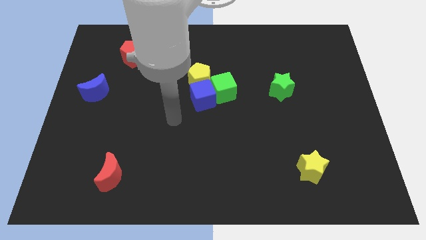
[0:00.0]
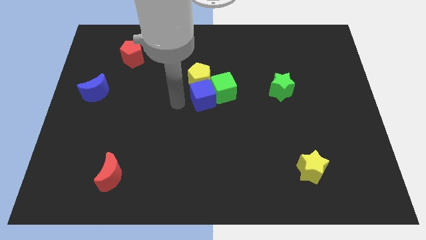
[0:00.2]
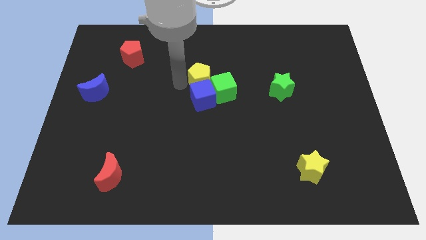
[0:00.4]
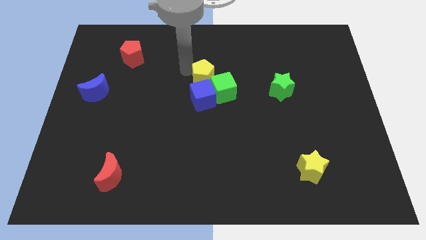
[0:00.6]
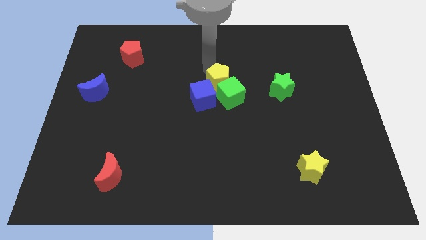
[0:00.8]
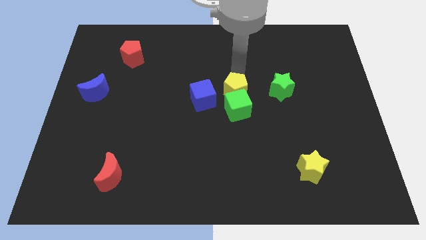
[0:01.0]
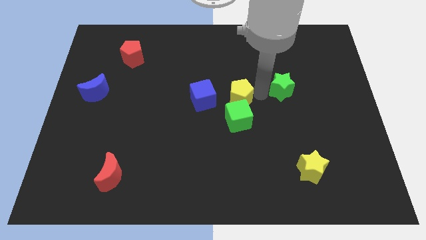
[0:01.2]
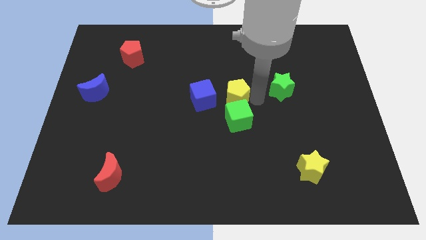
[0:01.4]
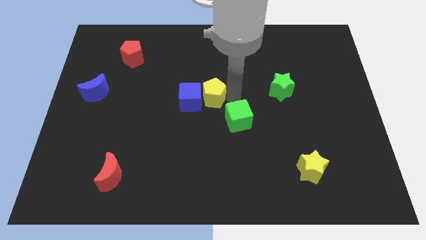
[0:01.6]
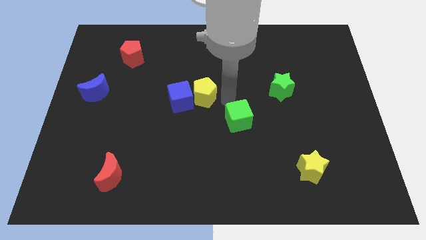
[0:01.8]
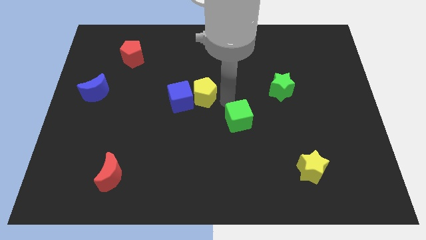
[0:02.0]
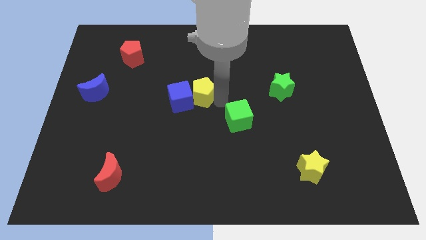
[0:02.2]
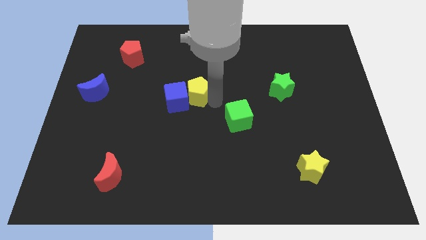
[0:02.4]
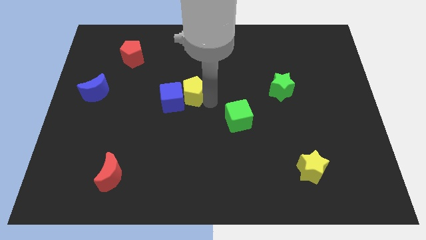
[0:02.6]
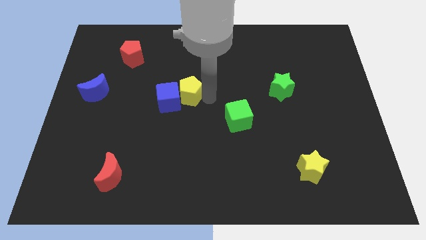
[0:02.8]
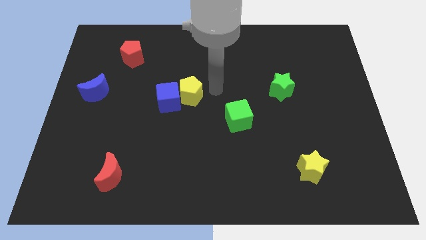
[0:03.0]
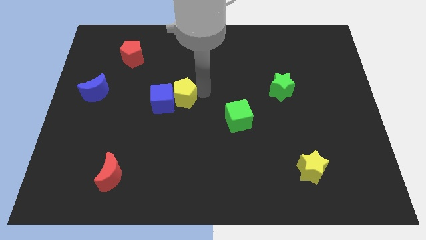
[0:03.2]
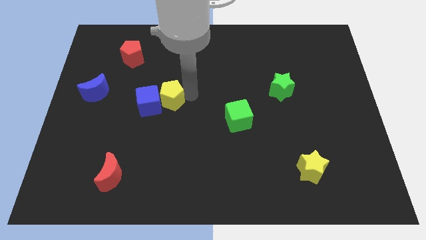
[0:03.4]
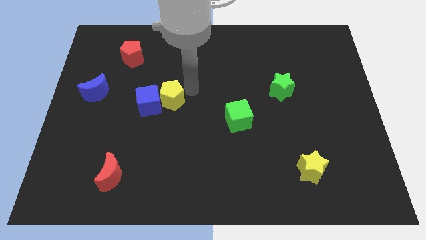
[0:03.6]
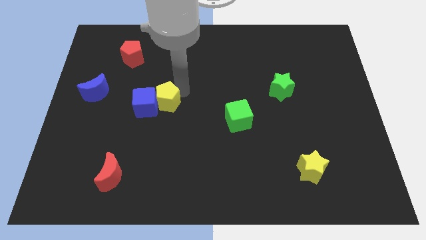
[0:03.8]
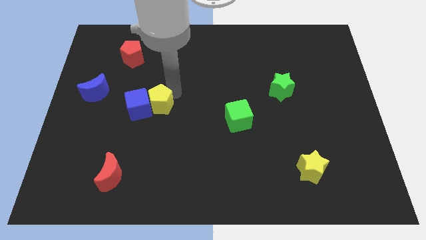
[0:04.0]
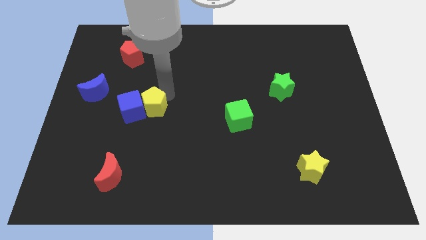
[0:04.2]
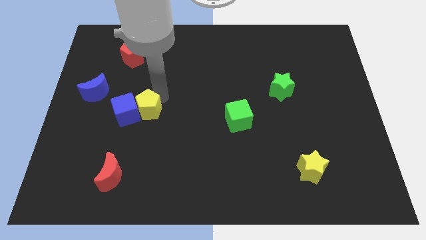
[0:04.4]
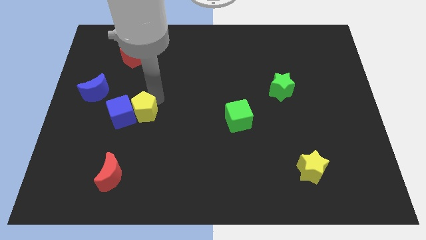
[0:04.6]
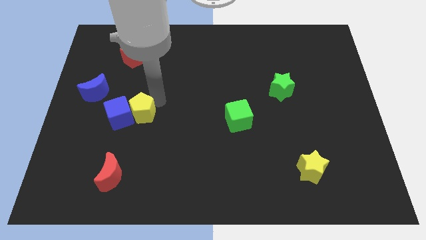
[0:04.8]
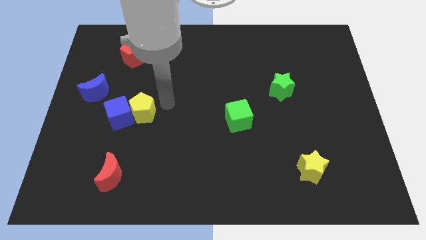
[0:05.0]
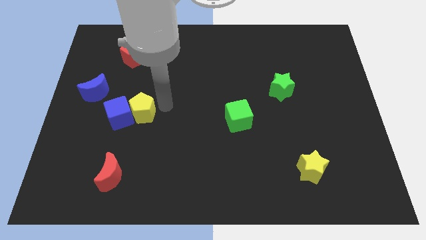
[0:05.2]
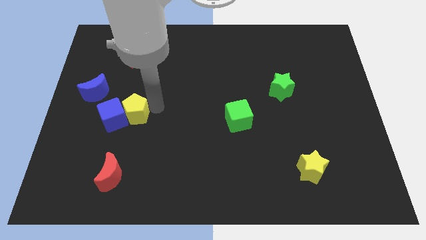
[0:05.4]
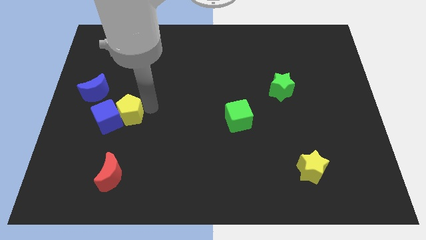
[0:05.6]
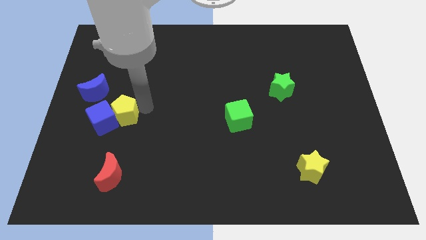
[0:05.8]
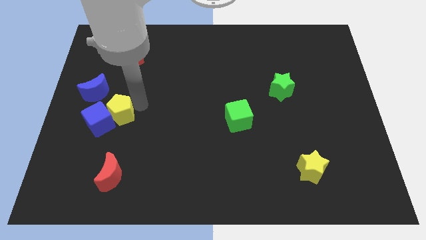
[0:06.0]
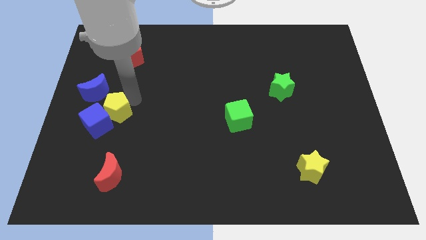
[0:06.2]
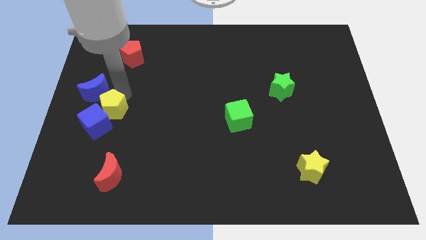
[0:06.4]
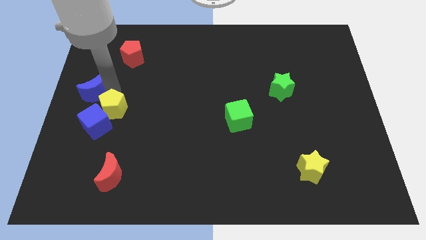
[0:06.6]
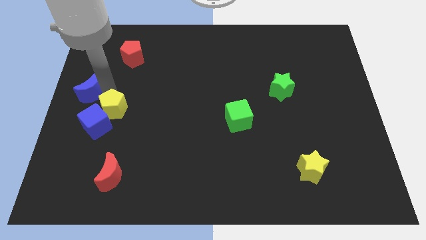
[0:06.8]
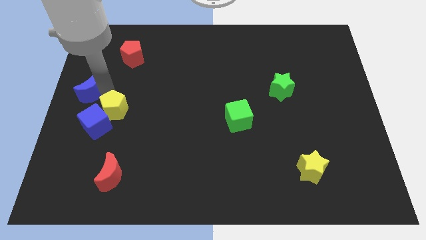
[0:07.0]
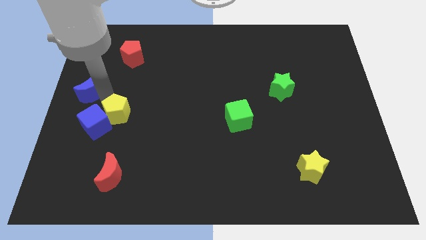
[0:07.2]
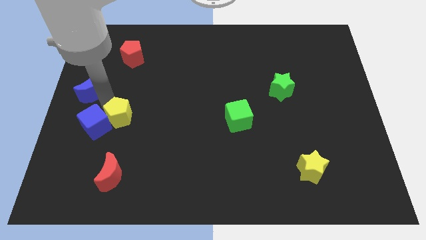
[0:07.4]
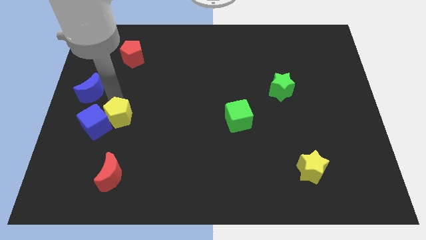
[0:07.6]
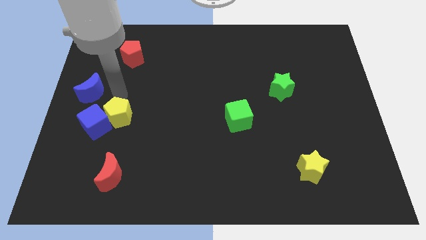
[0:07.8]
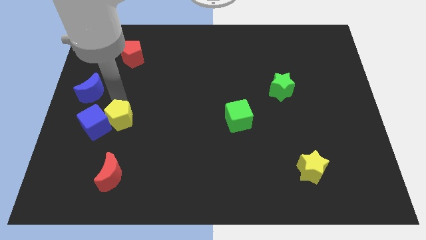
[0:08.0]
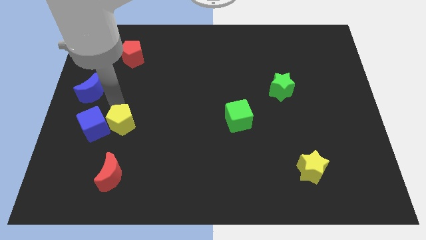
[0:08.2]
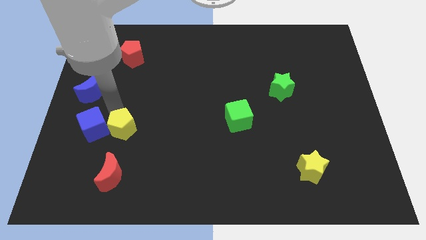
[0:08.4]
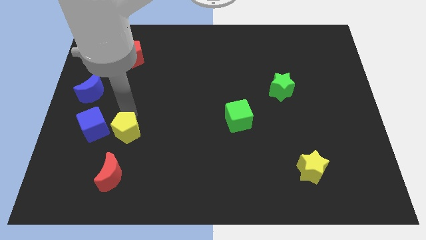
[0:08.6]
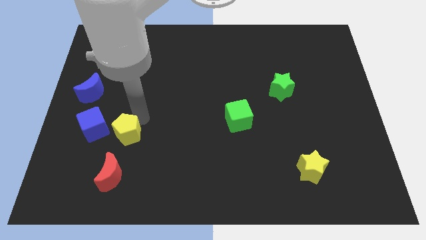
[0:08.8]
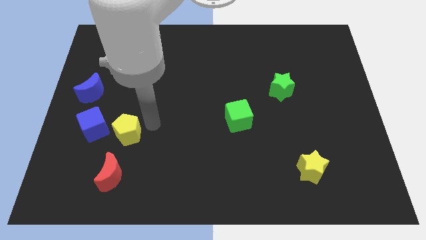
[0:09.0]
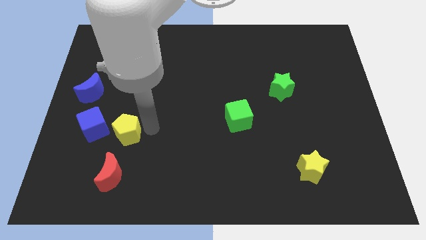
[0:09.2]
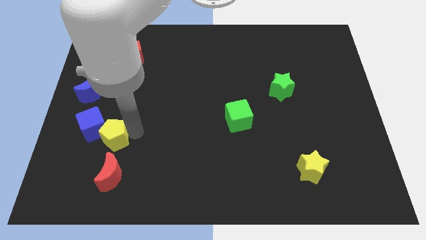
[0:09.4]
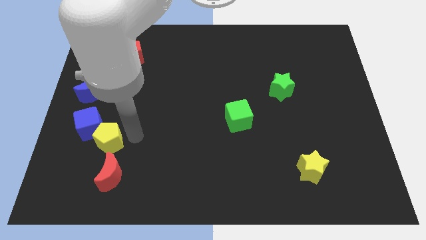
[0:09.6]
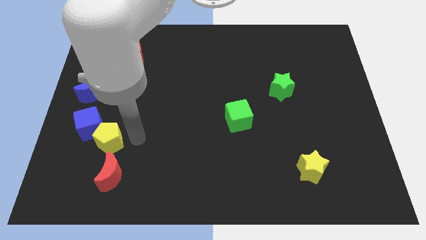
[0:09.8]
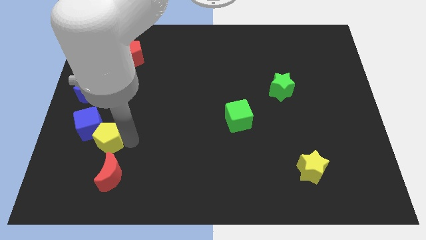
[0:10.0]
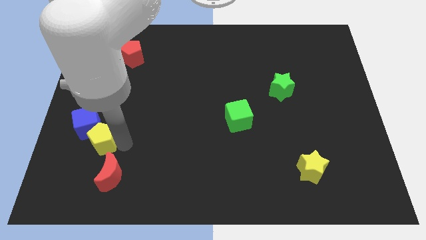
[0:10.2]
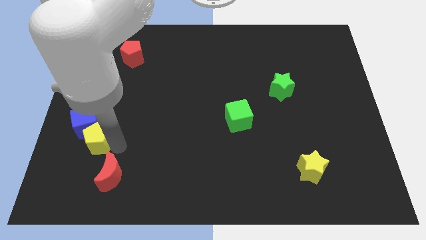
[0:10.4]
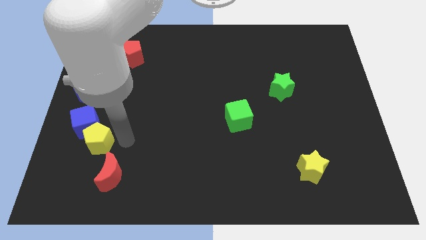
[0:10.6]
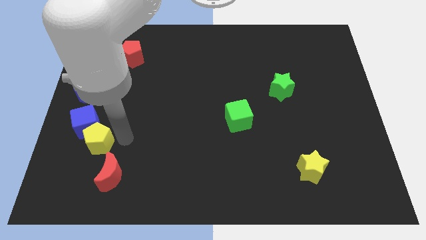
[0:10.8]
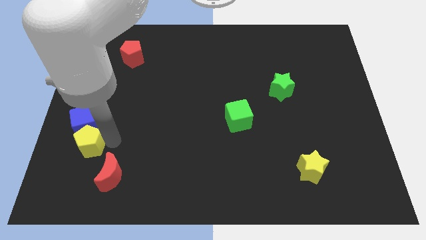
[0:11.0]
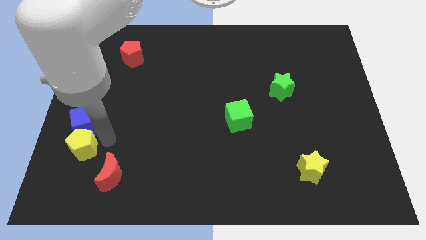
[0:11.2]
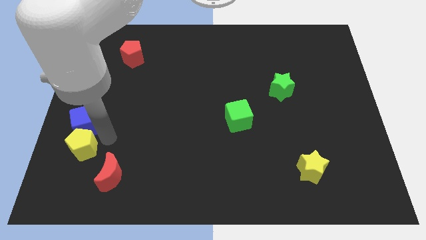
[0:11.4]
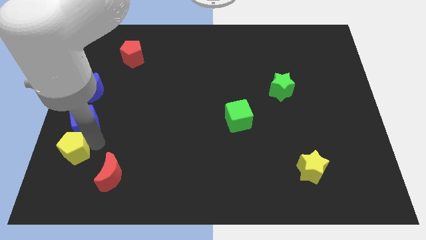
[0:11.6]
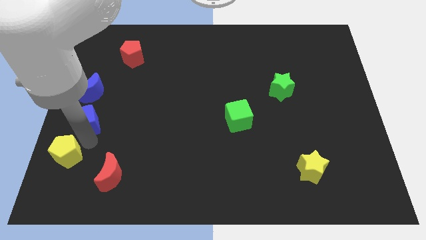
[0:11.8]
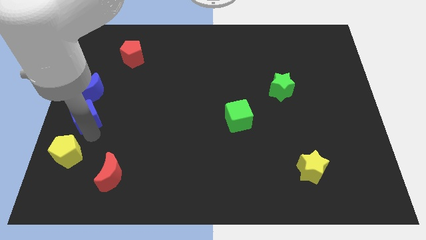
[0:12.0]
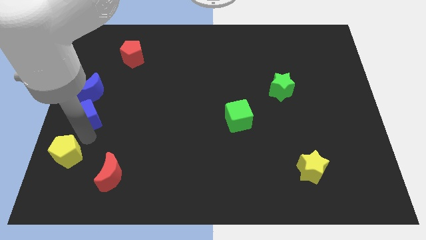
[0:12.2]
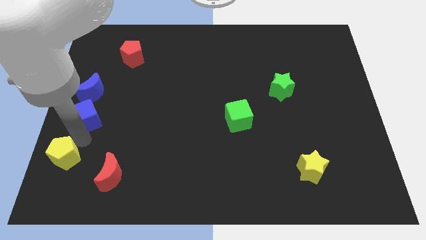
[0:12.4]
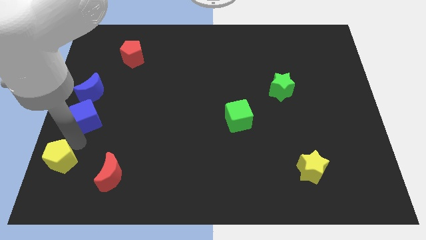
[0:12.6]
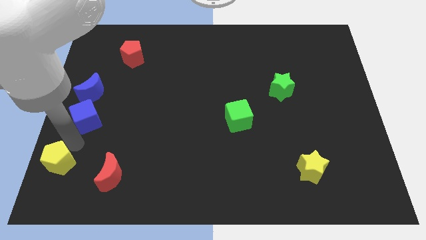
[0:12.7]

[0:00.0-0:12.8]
put the yellow pentagon to the lower left corner

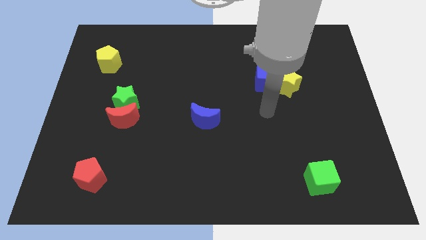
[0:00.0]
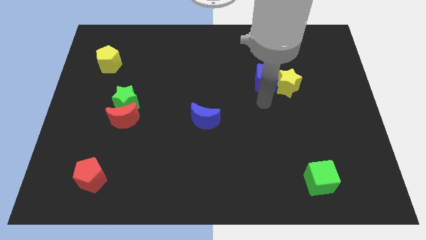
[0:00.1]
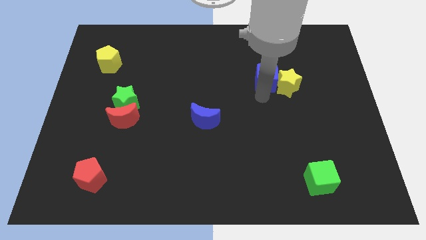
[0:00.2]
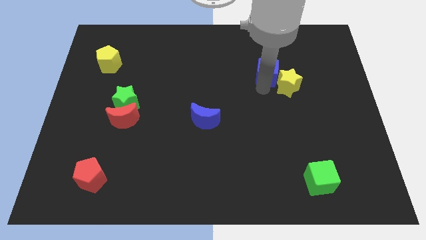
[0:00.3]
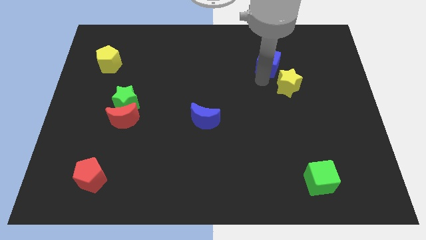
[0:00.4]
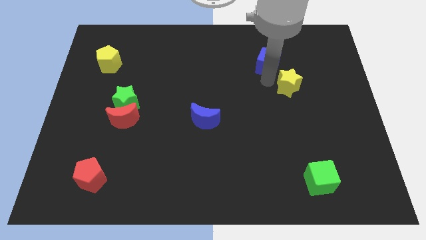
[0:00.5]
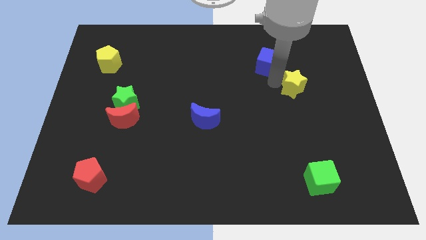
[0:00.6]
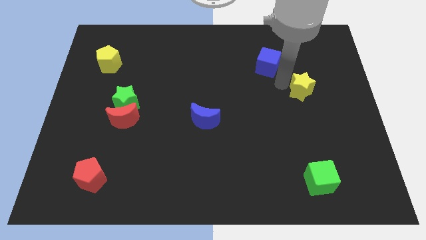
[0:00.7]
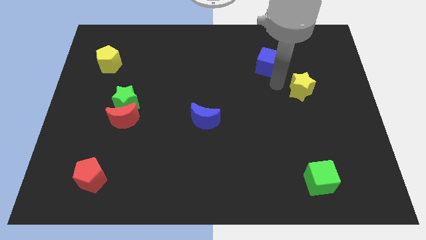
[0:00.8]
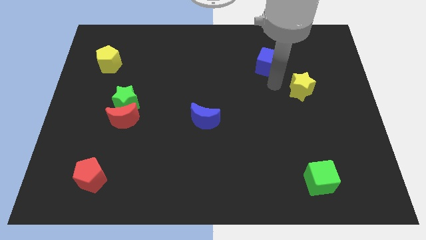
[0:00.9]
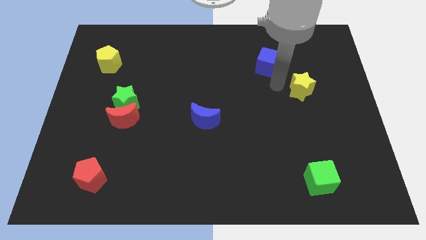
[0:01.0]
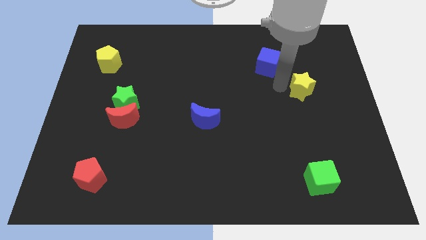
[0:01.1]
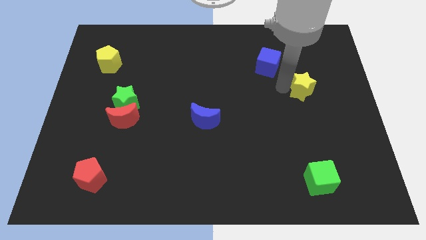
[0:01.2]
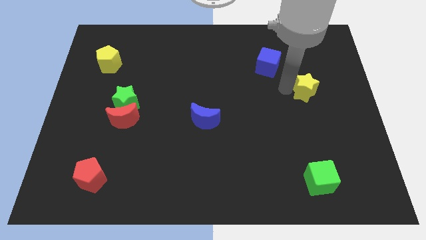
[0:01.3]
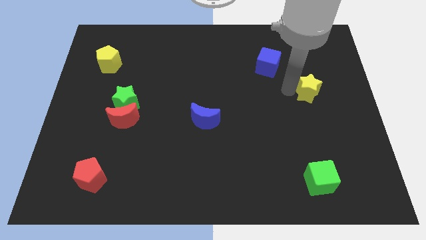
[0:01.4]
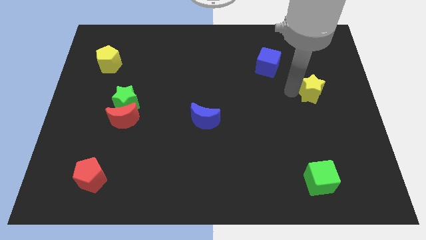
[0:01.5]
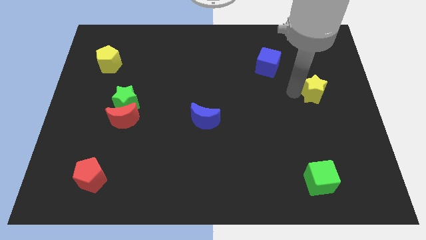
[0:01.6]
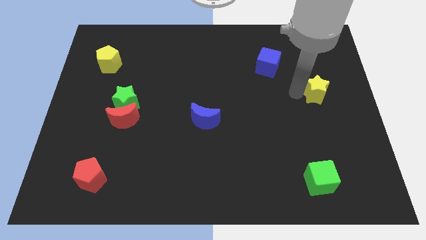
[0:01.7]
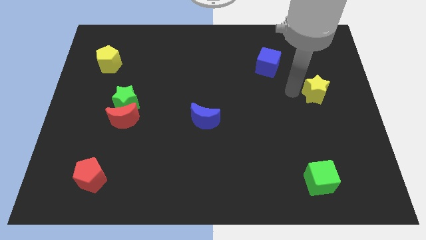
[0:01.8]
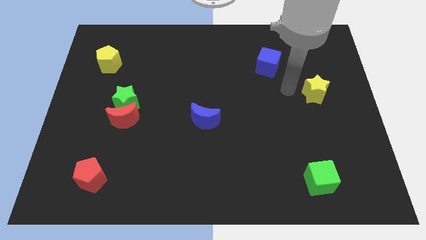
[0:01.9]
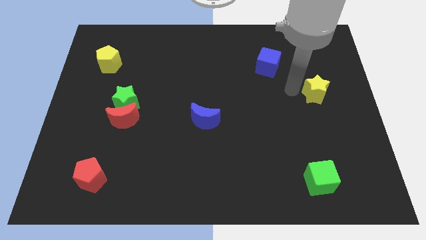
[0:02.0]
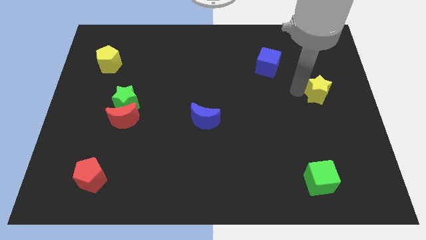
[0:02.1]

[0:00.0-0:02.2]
put the yellow star to the right side
